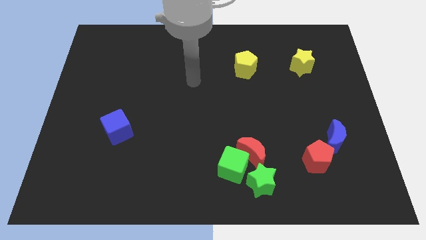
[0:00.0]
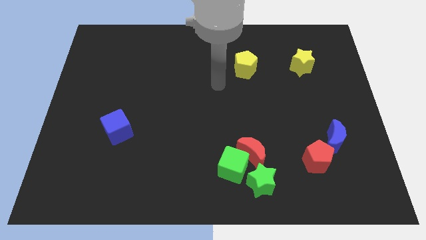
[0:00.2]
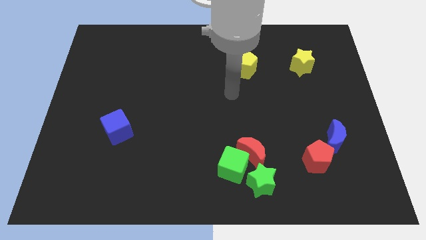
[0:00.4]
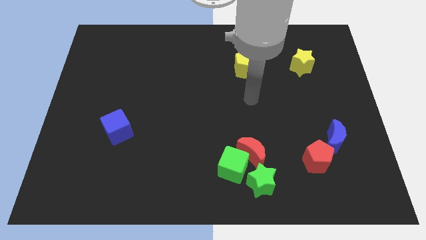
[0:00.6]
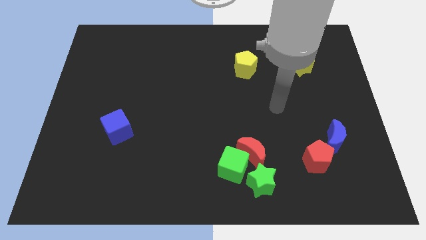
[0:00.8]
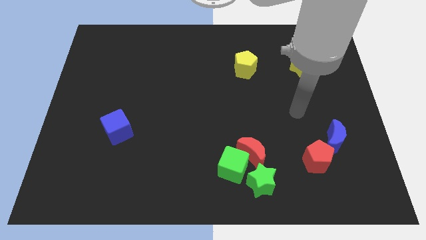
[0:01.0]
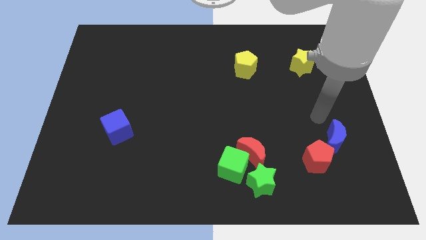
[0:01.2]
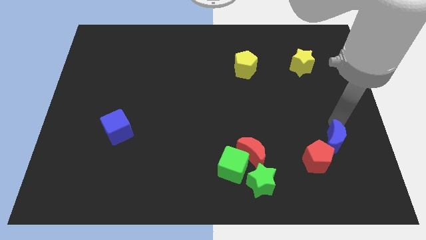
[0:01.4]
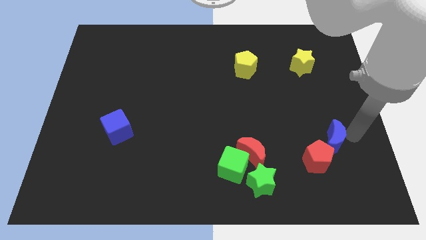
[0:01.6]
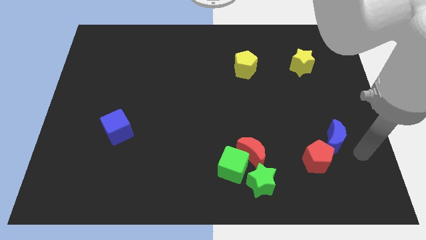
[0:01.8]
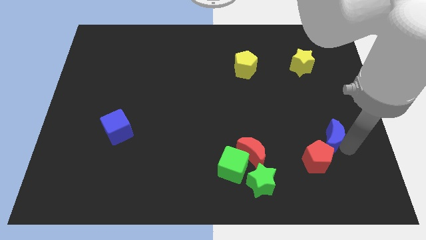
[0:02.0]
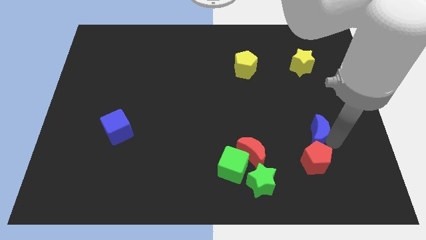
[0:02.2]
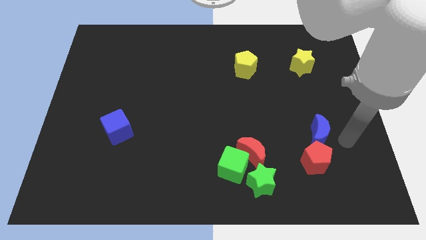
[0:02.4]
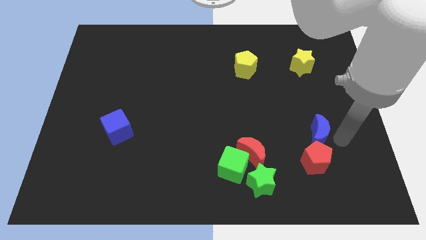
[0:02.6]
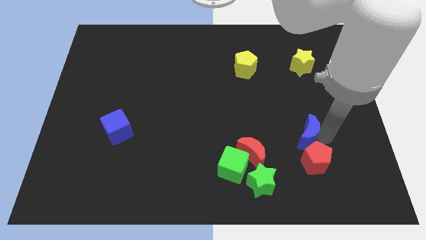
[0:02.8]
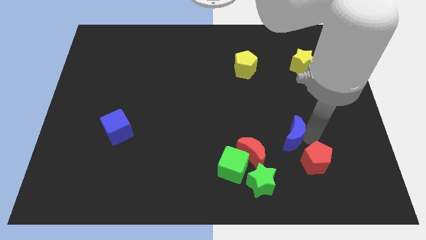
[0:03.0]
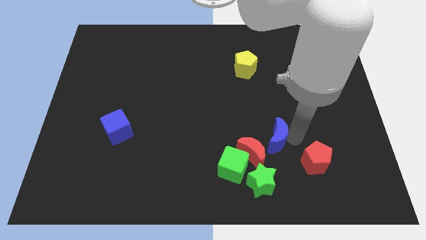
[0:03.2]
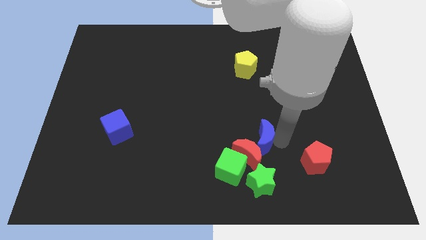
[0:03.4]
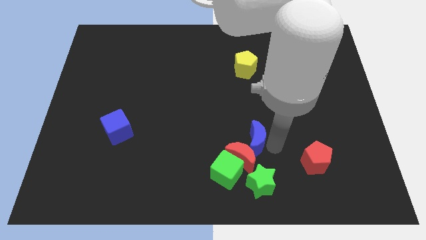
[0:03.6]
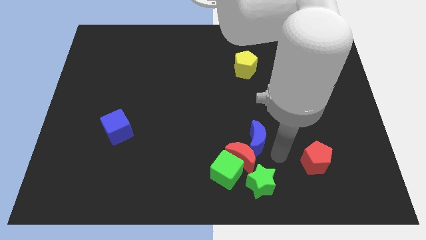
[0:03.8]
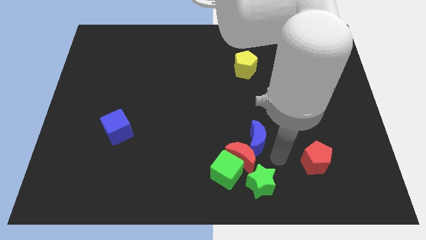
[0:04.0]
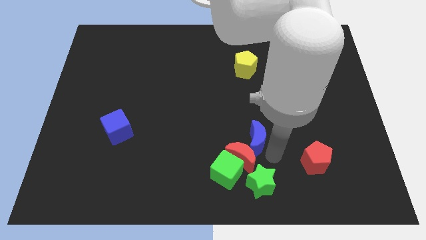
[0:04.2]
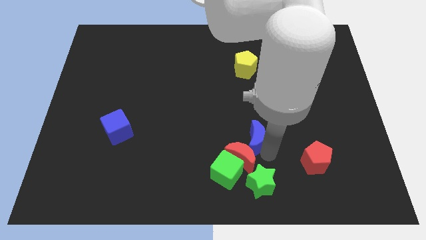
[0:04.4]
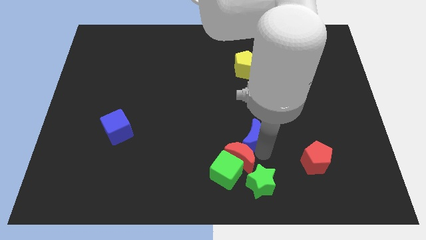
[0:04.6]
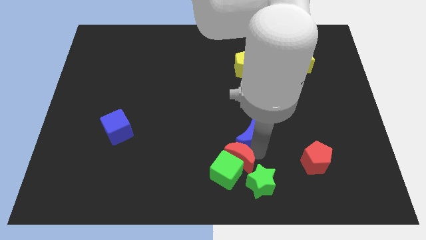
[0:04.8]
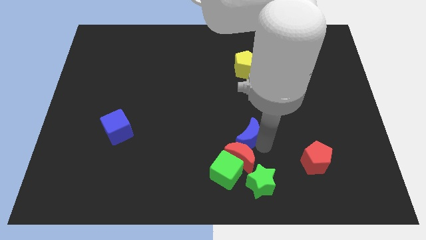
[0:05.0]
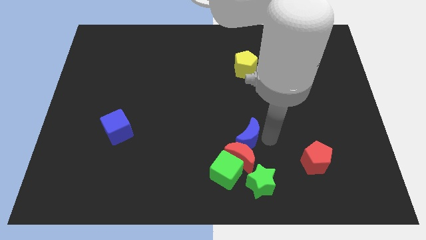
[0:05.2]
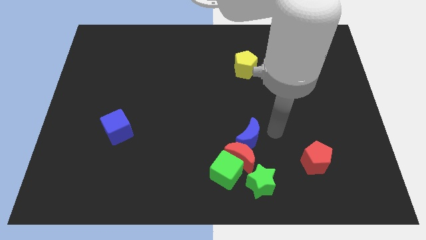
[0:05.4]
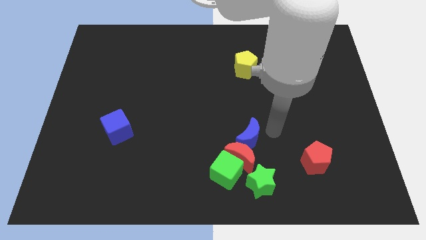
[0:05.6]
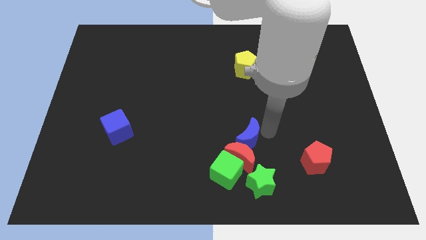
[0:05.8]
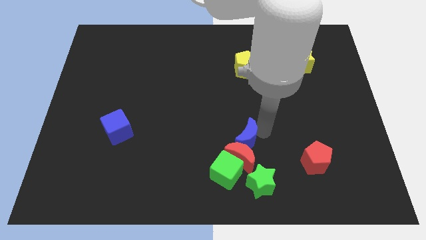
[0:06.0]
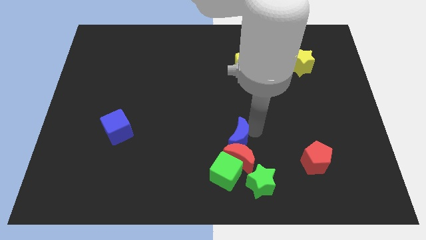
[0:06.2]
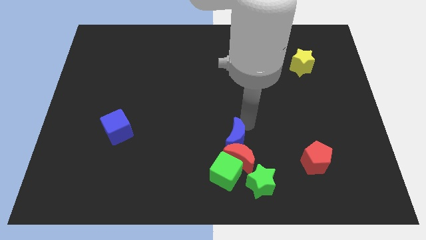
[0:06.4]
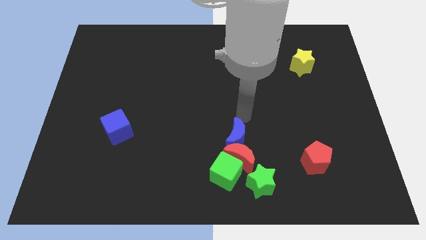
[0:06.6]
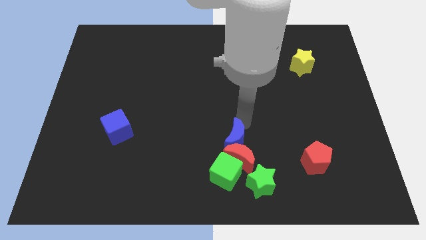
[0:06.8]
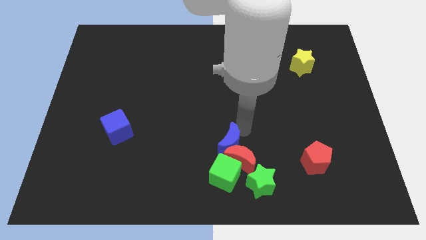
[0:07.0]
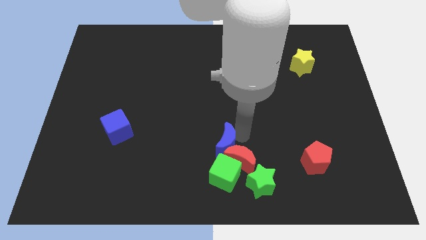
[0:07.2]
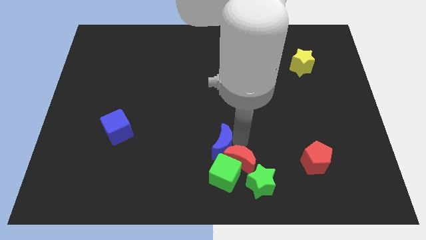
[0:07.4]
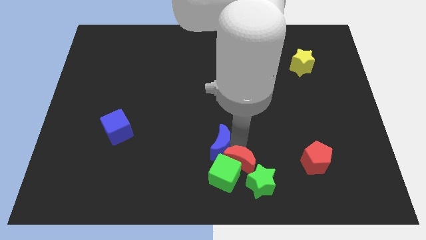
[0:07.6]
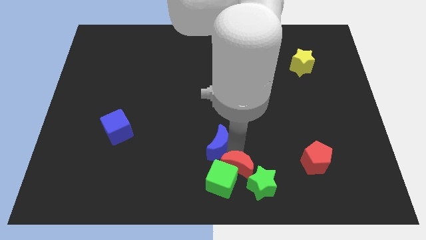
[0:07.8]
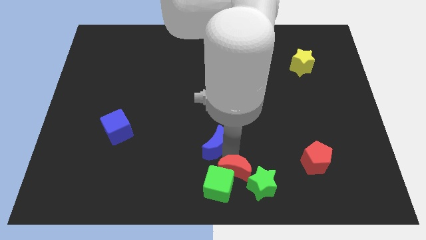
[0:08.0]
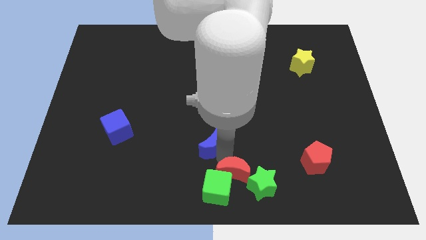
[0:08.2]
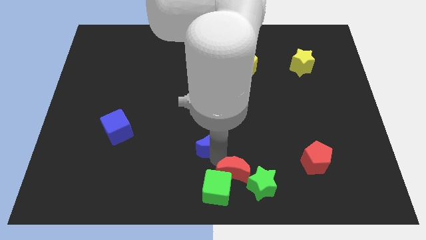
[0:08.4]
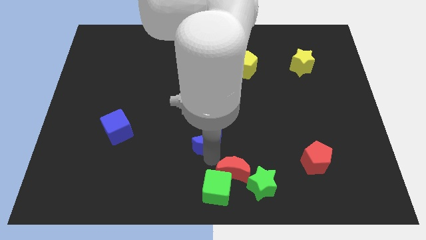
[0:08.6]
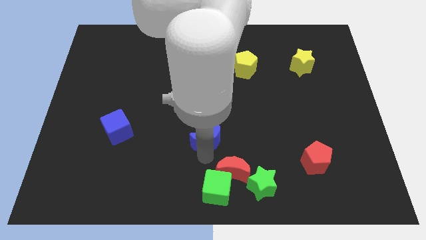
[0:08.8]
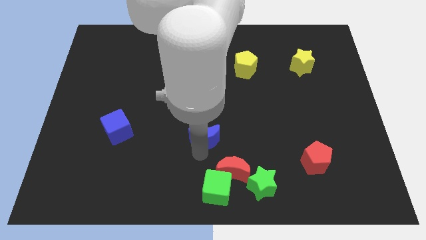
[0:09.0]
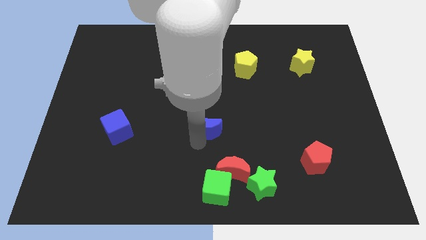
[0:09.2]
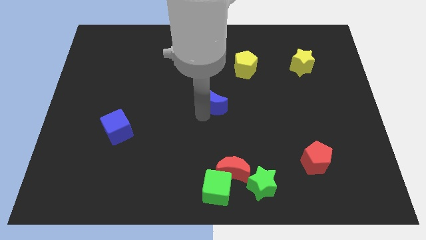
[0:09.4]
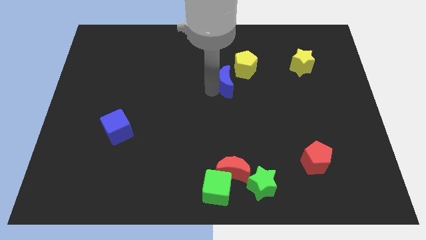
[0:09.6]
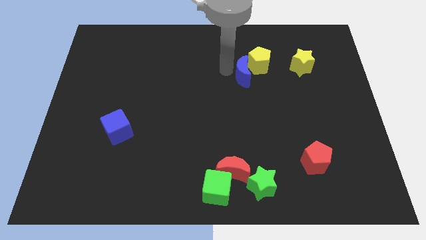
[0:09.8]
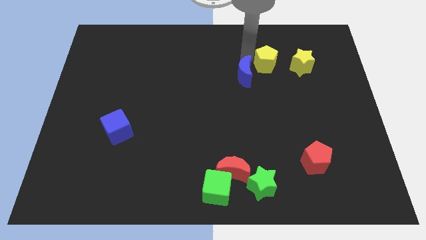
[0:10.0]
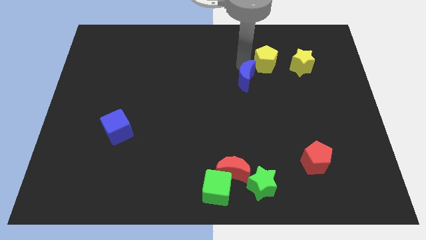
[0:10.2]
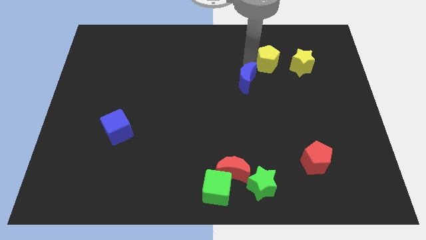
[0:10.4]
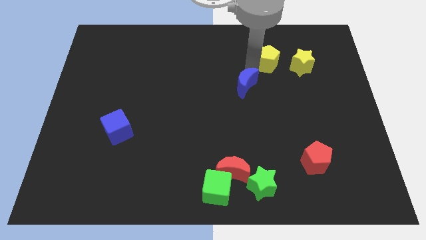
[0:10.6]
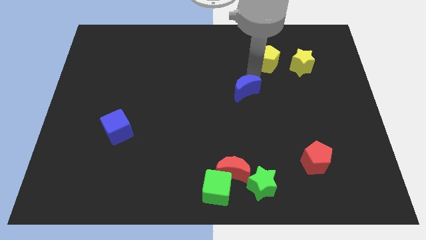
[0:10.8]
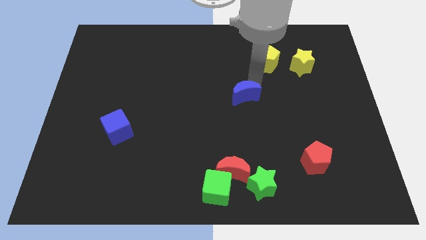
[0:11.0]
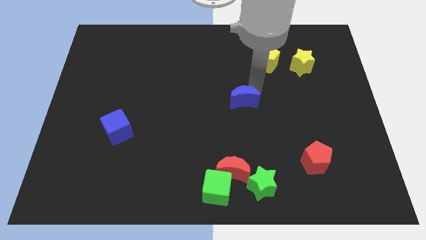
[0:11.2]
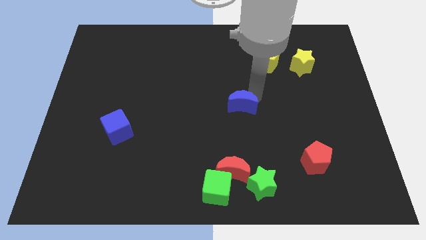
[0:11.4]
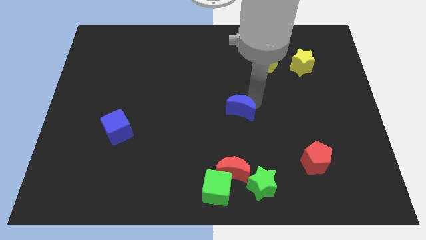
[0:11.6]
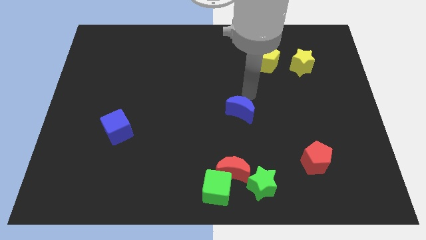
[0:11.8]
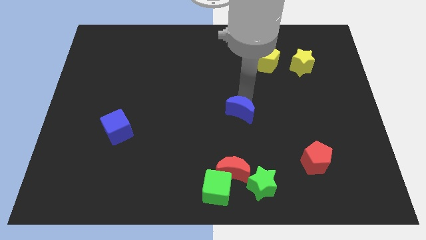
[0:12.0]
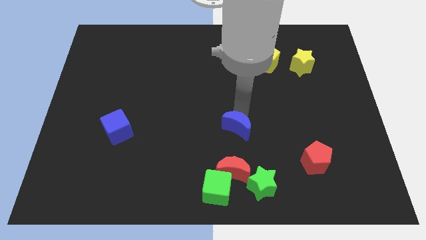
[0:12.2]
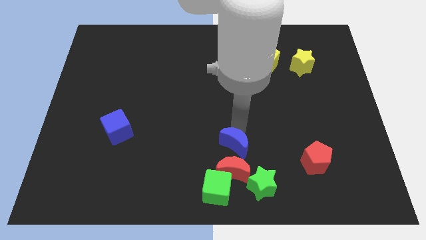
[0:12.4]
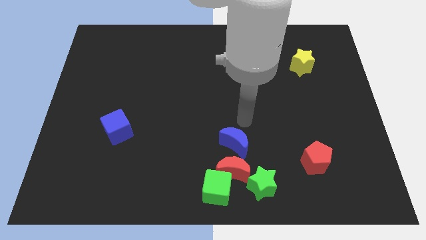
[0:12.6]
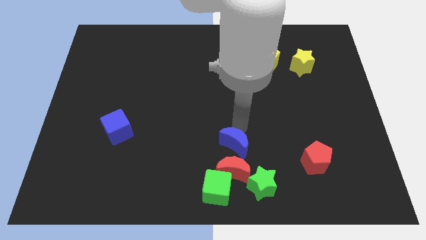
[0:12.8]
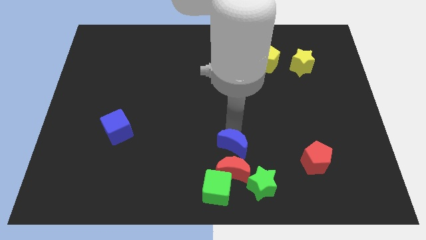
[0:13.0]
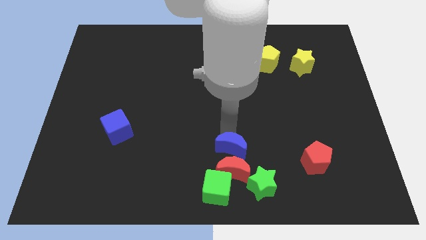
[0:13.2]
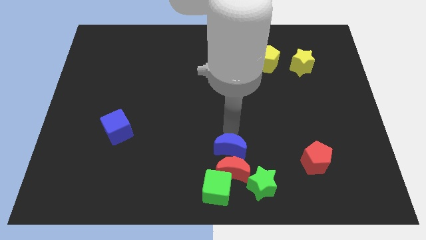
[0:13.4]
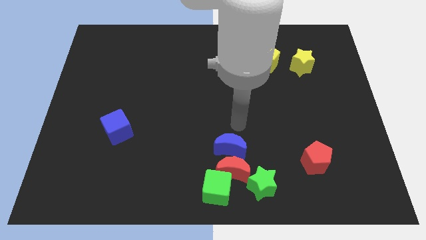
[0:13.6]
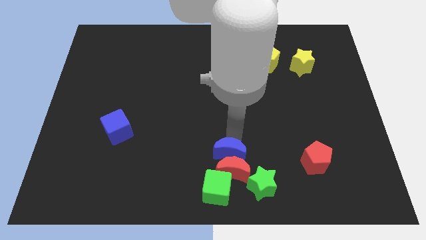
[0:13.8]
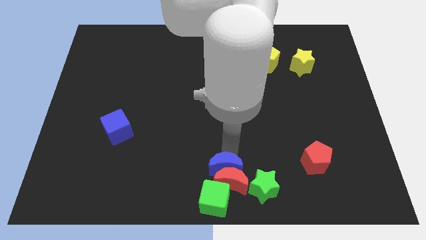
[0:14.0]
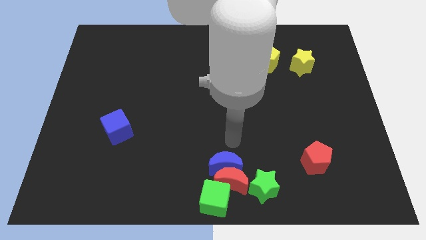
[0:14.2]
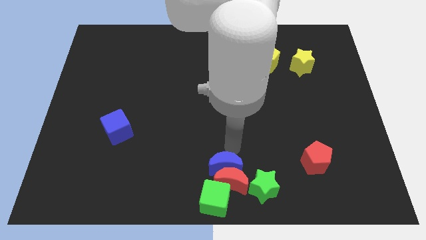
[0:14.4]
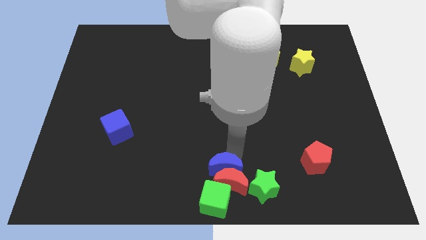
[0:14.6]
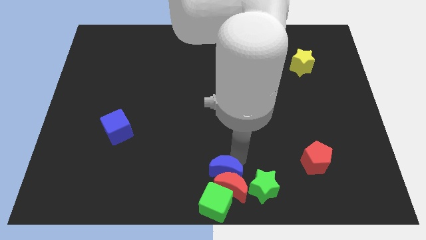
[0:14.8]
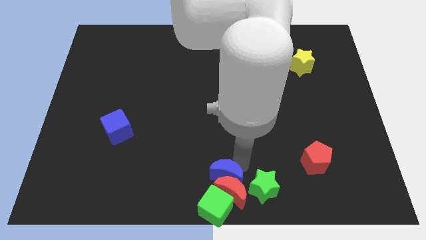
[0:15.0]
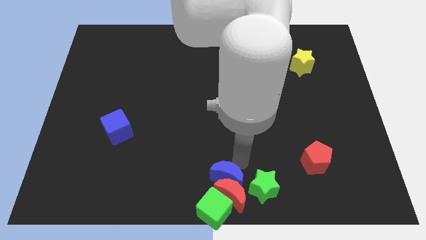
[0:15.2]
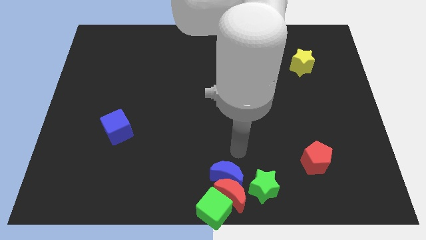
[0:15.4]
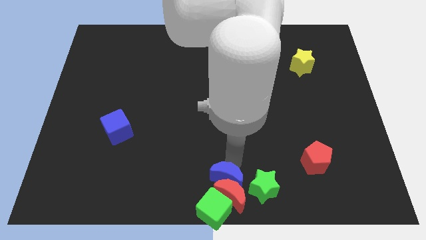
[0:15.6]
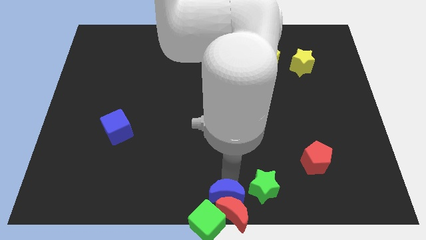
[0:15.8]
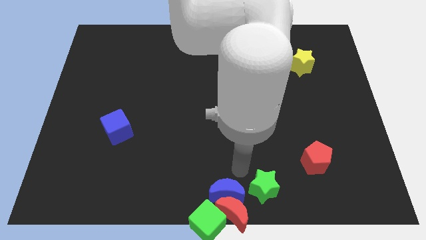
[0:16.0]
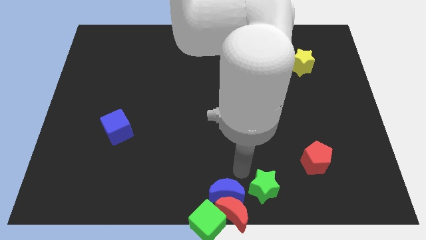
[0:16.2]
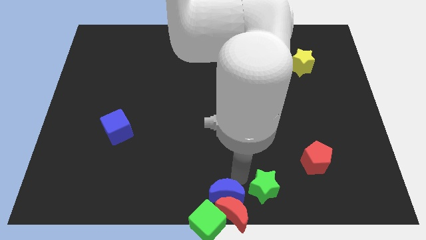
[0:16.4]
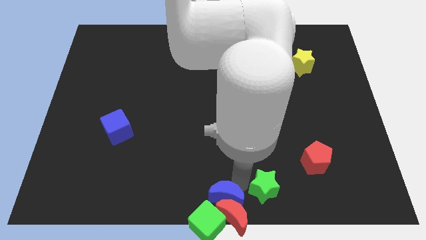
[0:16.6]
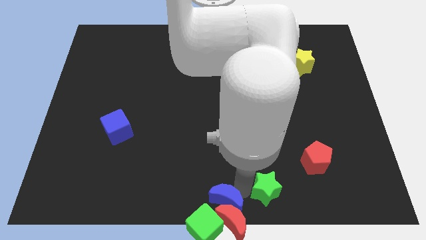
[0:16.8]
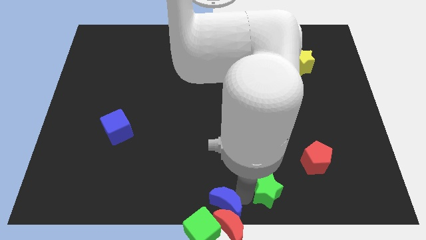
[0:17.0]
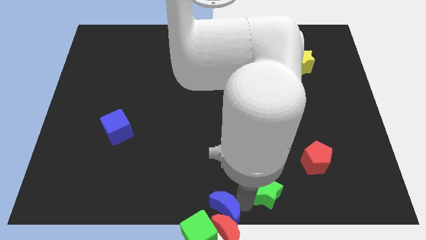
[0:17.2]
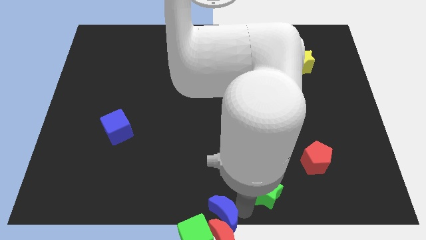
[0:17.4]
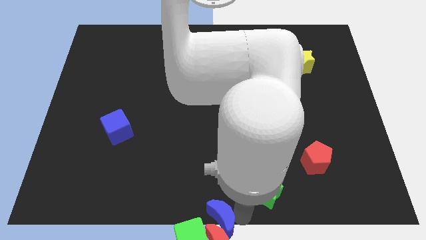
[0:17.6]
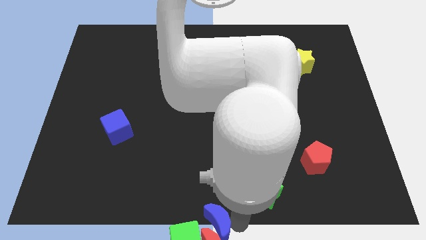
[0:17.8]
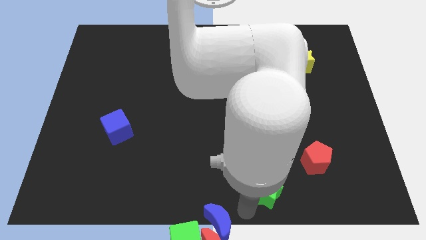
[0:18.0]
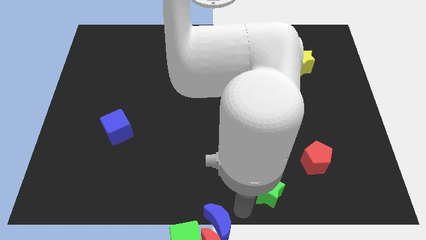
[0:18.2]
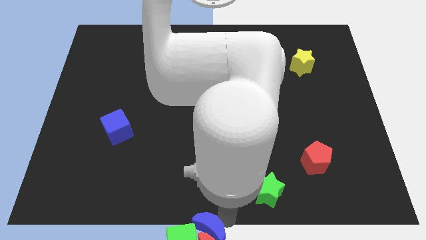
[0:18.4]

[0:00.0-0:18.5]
put the blue moon close to the green cube
